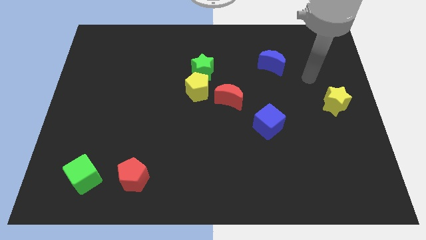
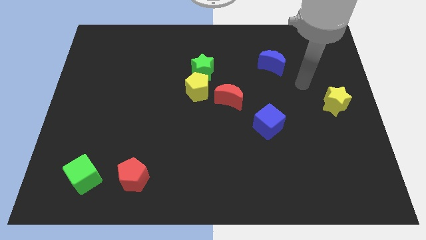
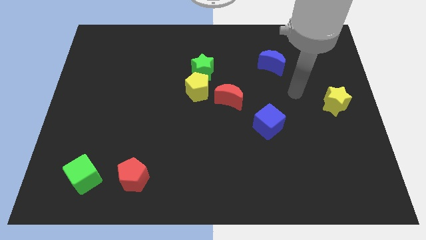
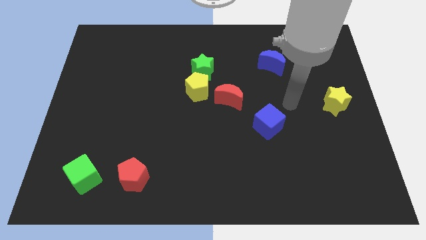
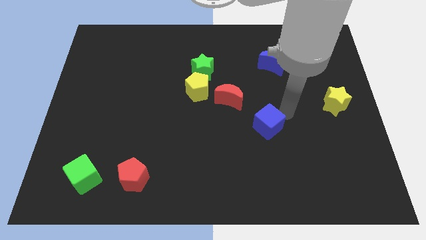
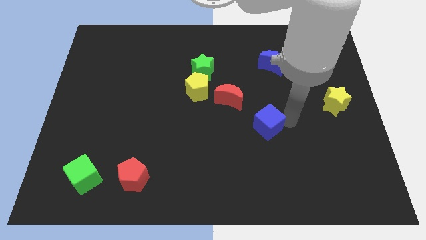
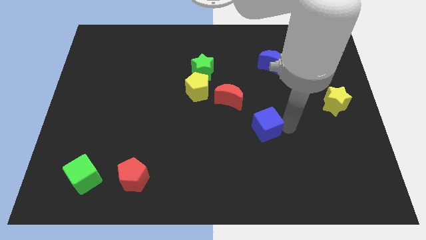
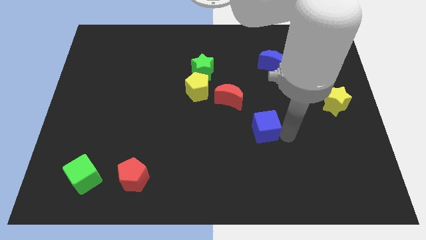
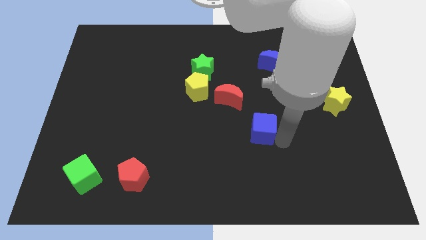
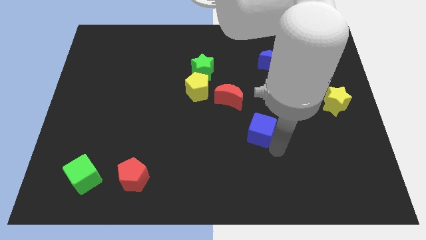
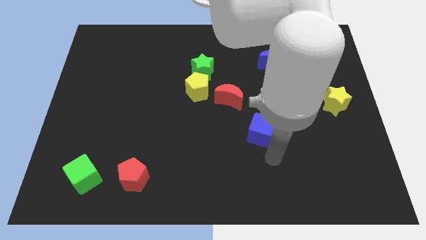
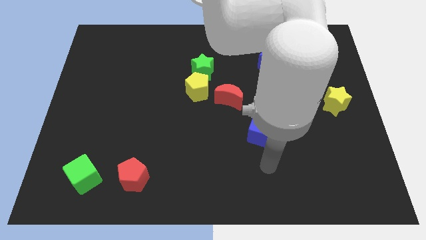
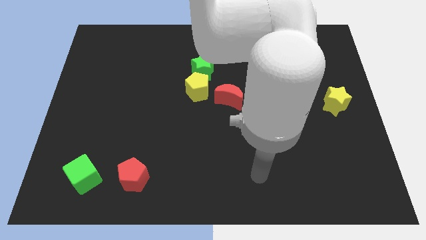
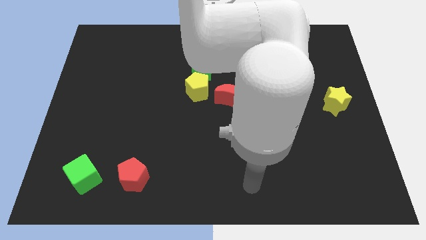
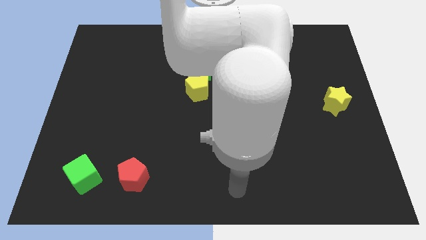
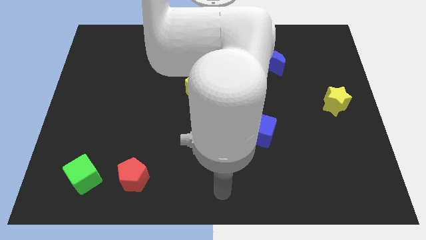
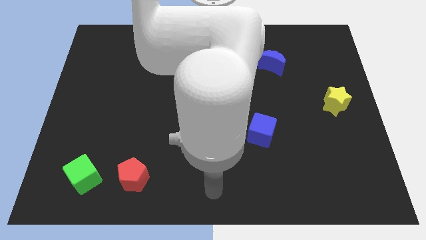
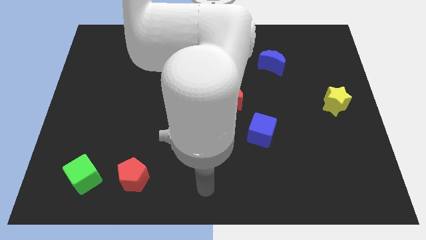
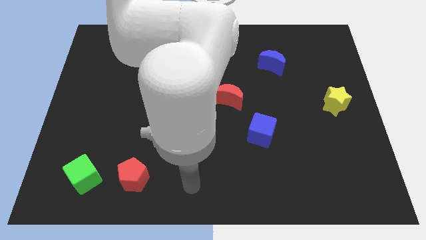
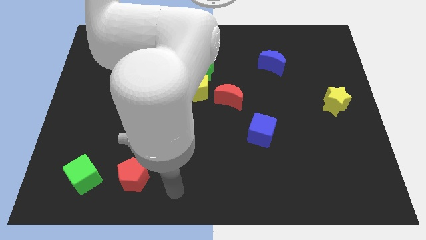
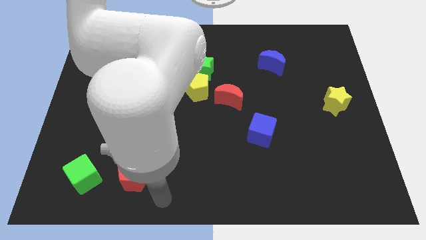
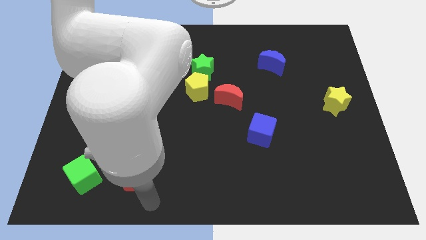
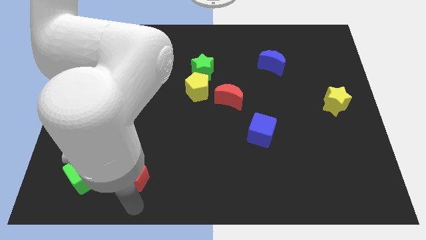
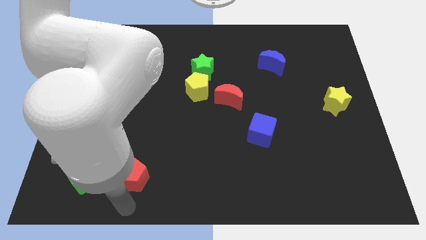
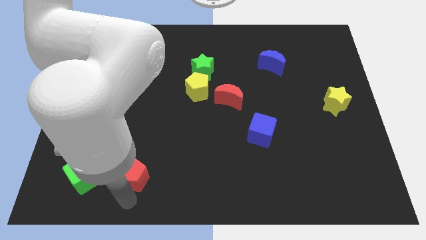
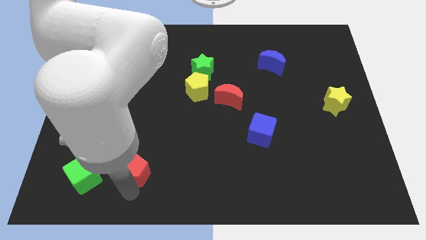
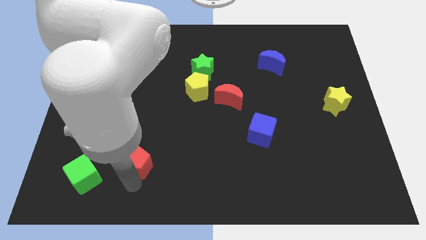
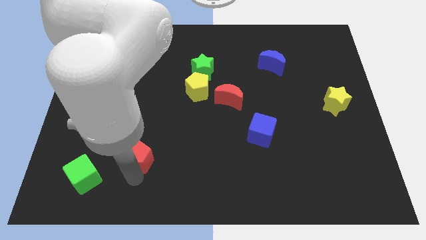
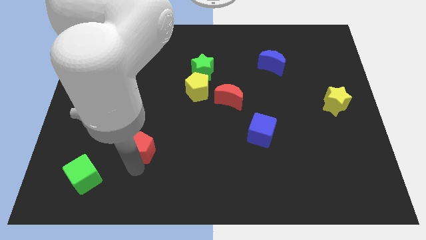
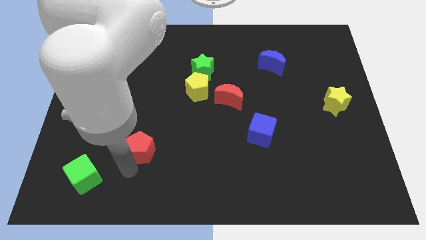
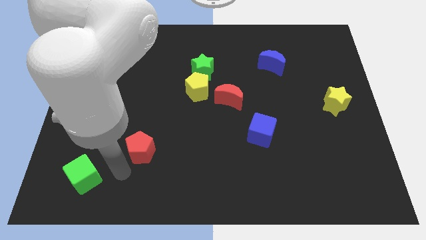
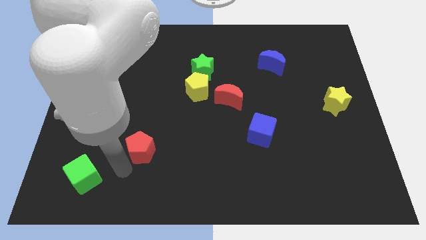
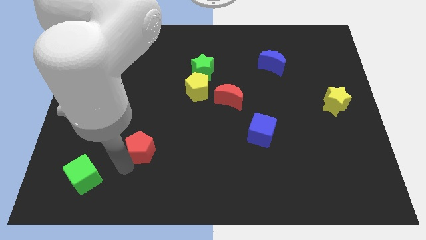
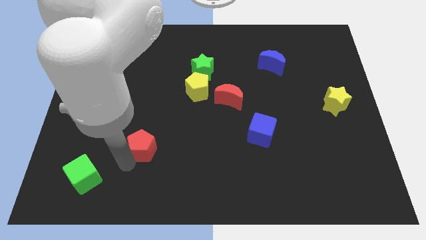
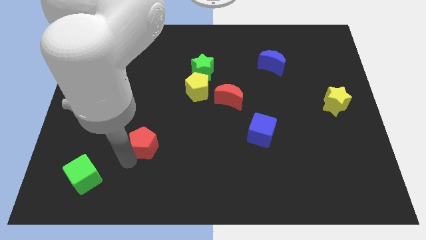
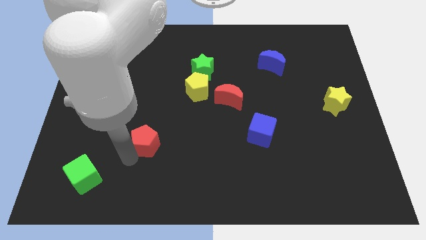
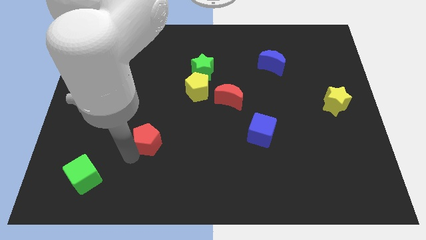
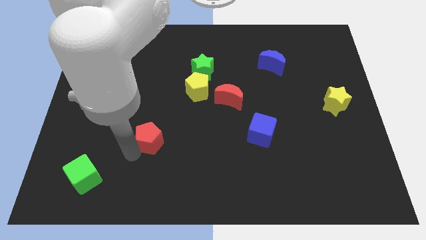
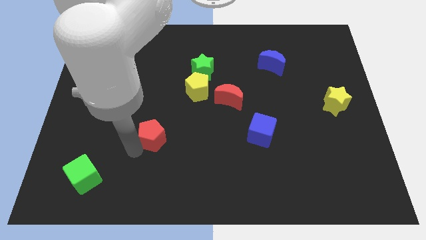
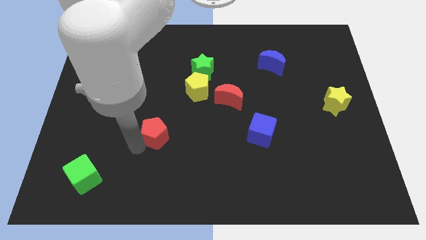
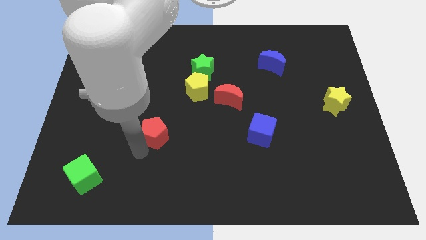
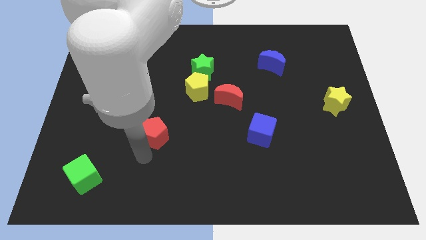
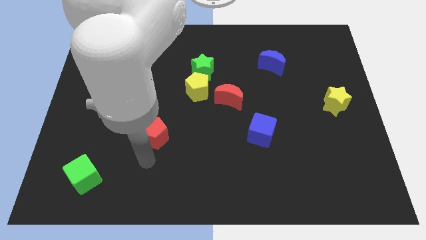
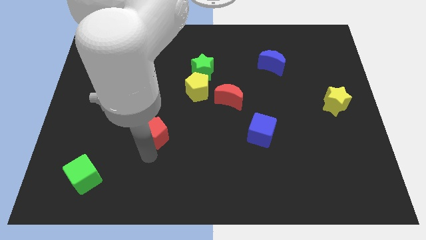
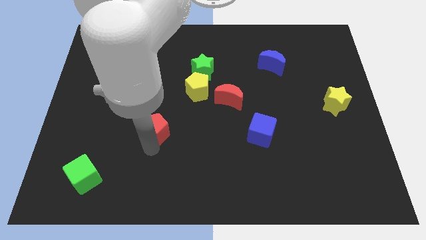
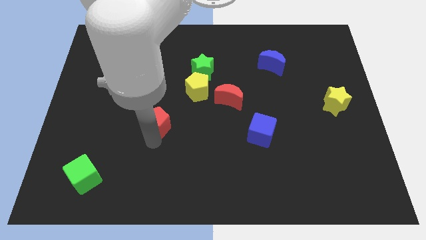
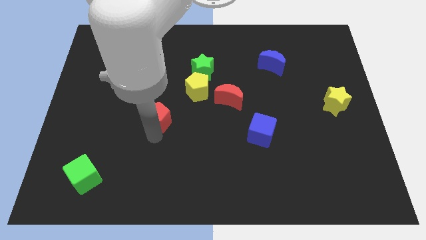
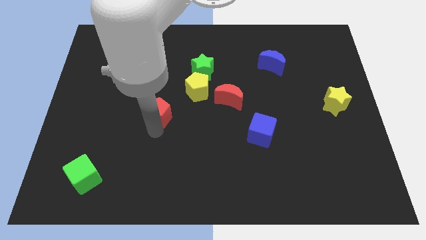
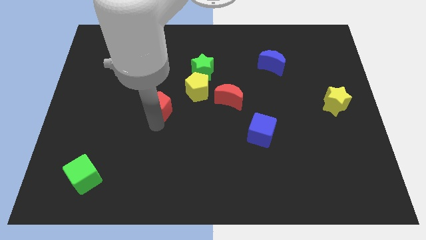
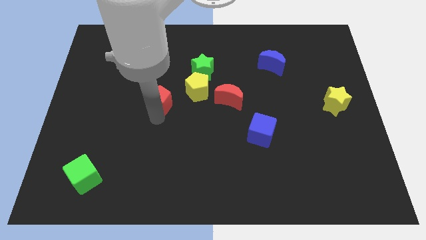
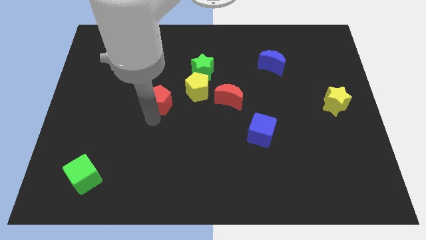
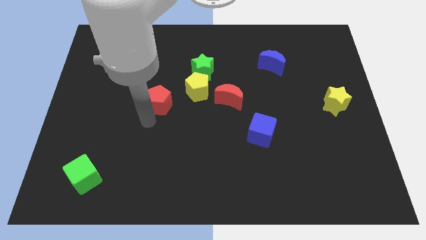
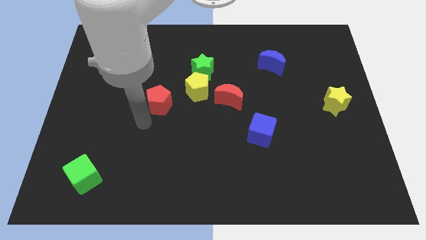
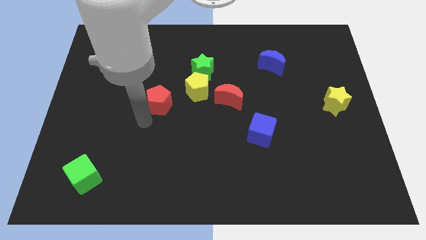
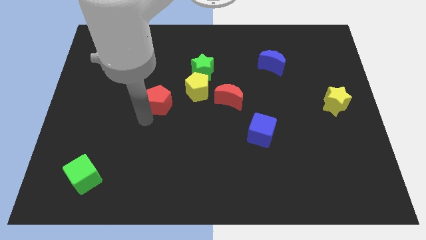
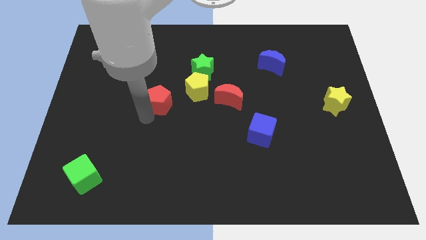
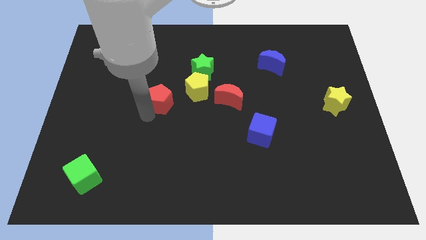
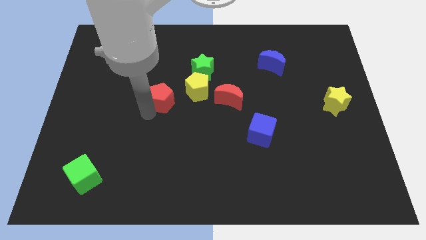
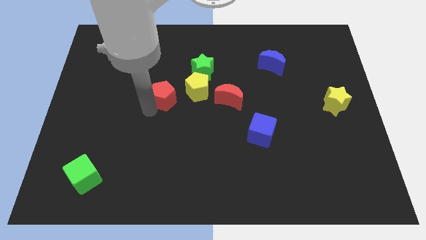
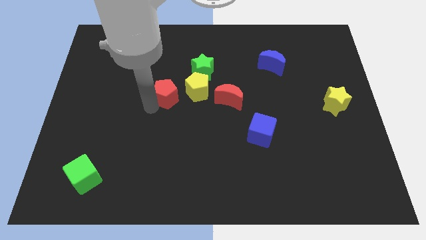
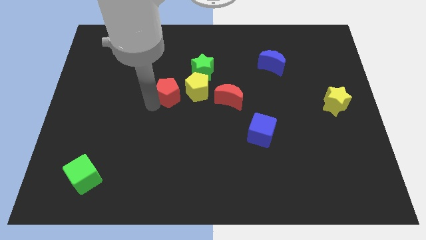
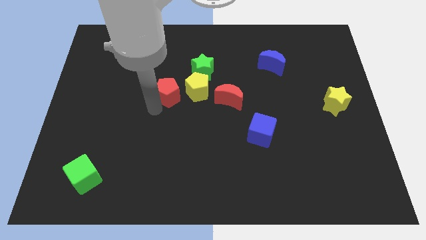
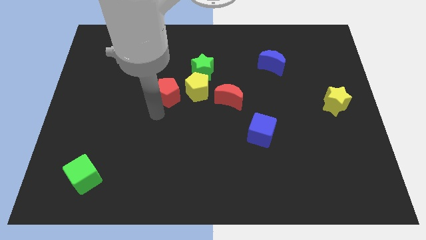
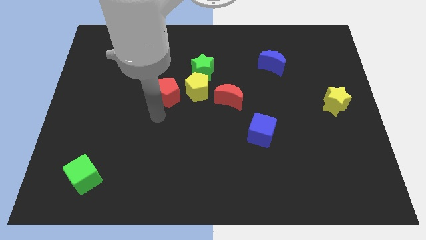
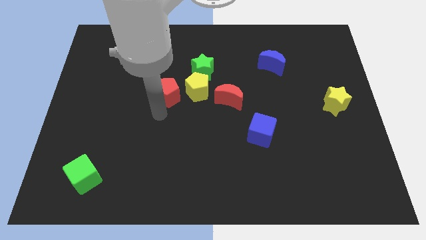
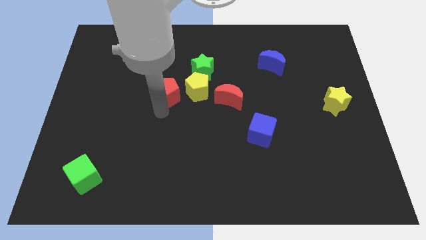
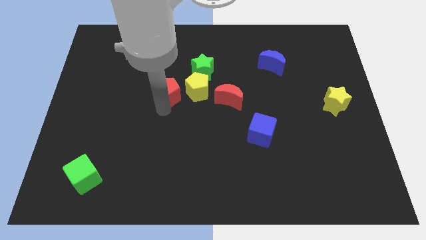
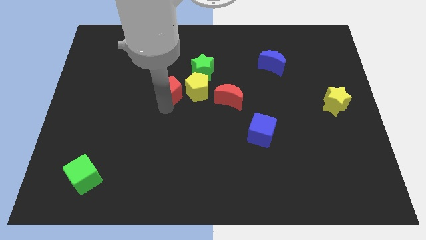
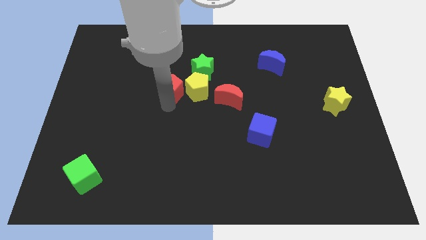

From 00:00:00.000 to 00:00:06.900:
move the red pentagon to the top left of the yellow pentagon
